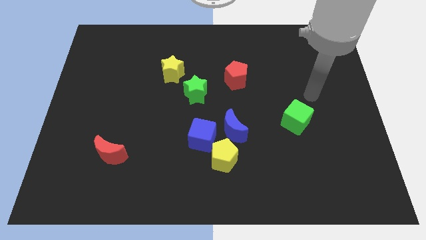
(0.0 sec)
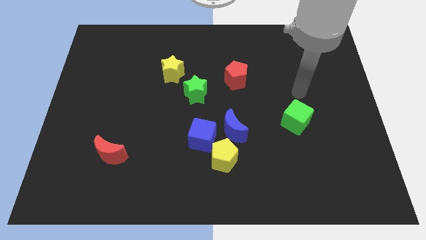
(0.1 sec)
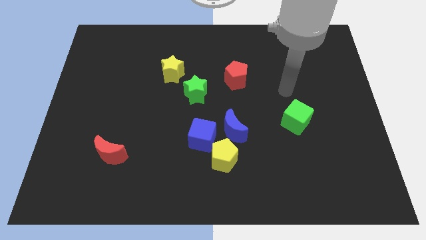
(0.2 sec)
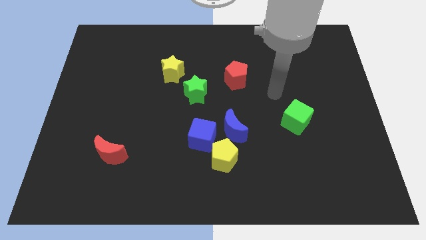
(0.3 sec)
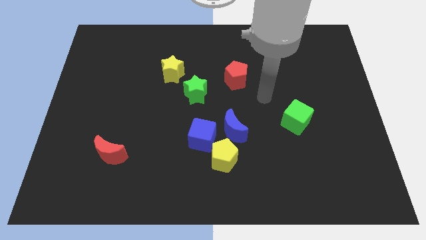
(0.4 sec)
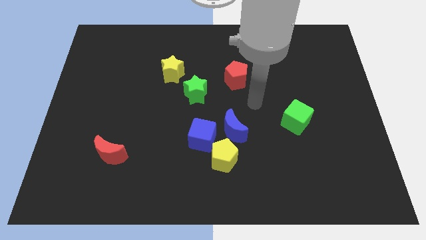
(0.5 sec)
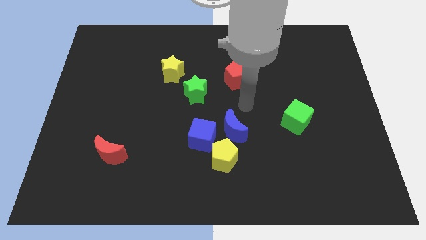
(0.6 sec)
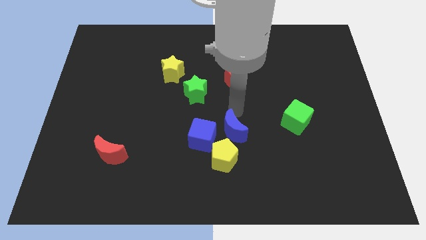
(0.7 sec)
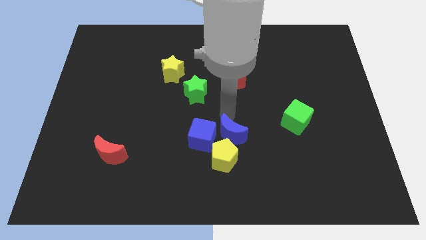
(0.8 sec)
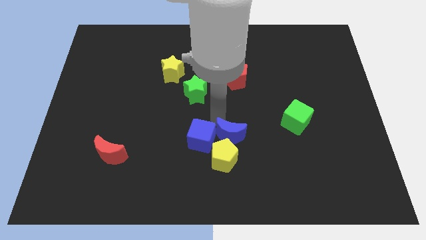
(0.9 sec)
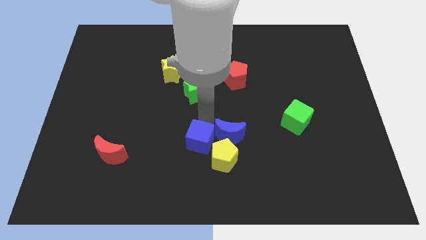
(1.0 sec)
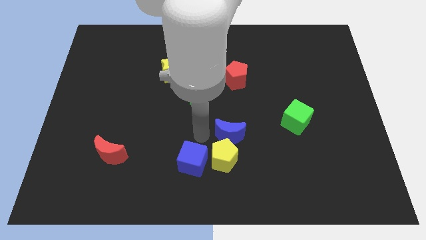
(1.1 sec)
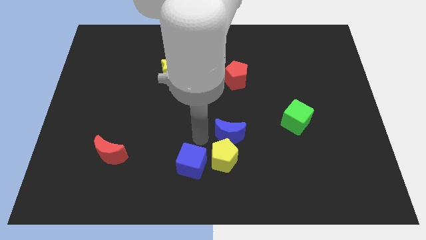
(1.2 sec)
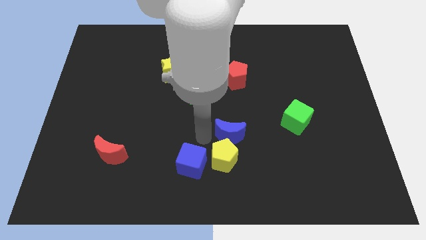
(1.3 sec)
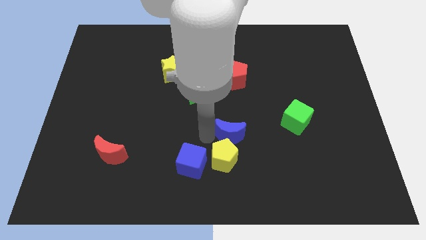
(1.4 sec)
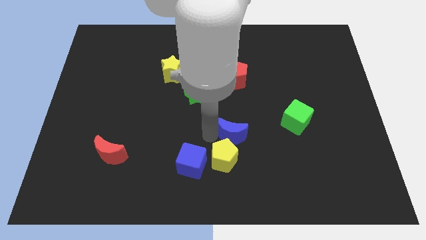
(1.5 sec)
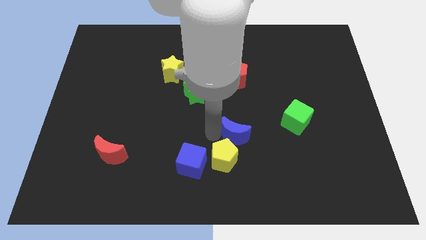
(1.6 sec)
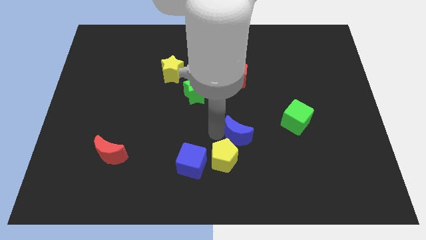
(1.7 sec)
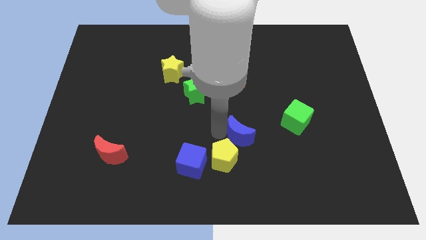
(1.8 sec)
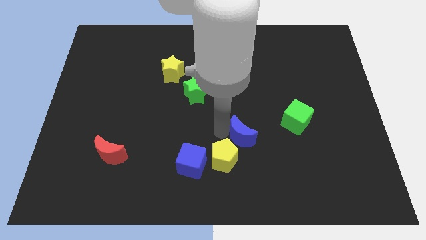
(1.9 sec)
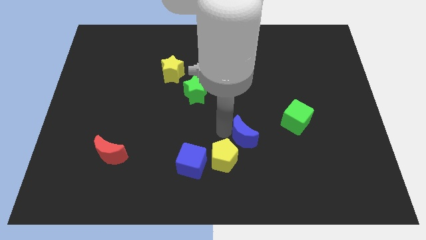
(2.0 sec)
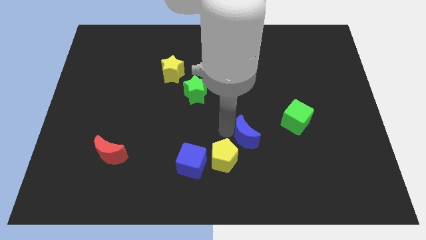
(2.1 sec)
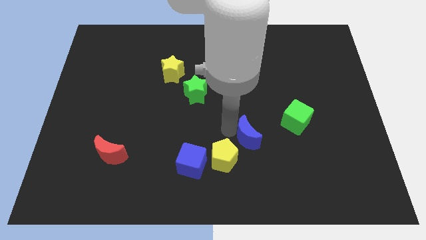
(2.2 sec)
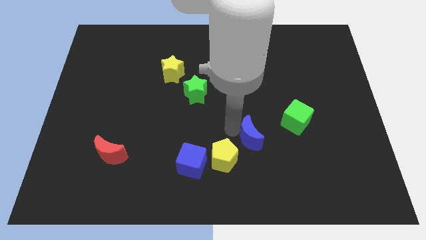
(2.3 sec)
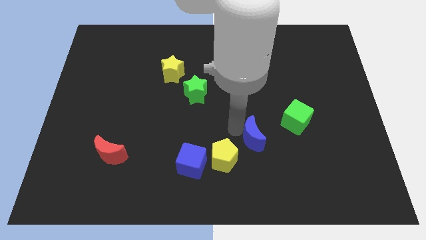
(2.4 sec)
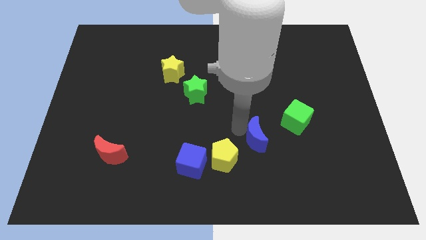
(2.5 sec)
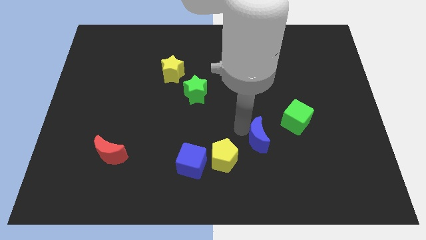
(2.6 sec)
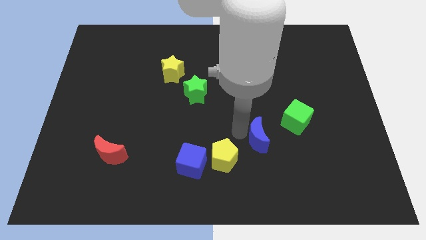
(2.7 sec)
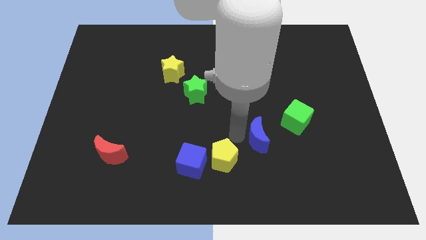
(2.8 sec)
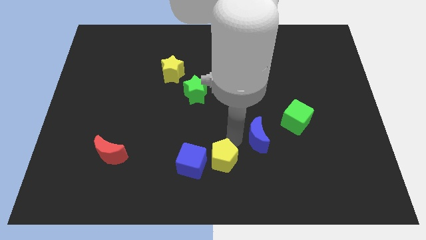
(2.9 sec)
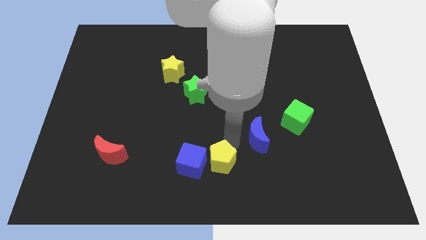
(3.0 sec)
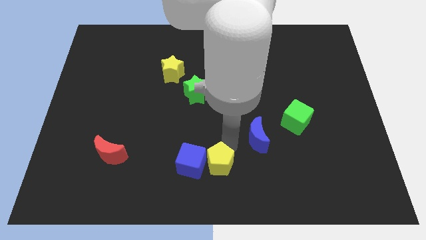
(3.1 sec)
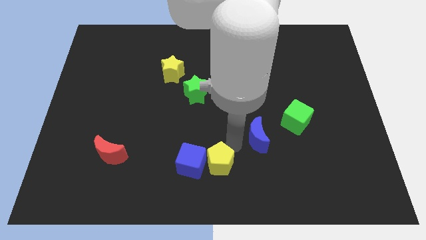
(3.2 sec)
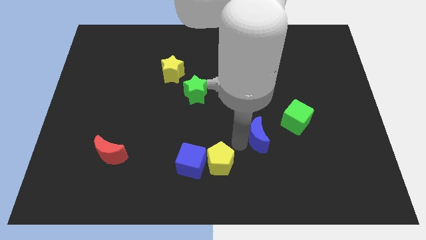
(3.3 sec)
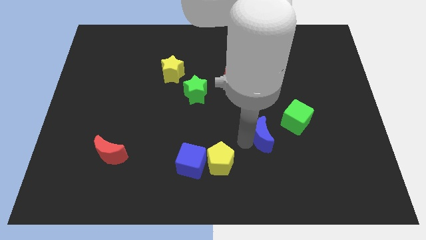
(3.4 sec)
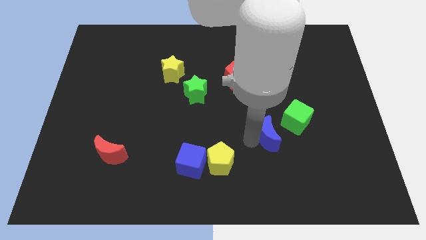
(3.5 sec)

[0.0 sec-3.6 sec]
slide the blue moon right a bit

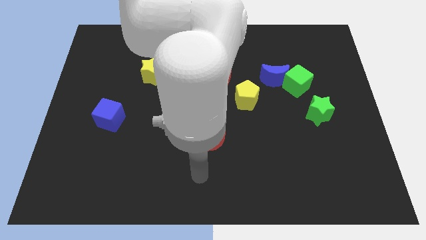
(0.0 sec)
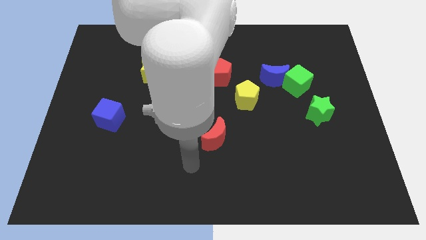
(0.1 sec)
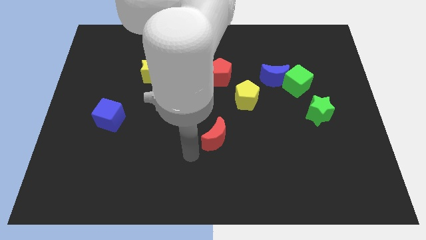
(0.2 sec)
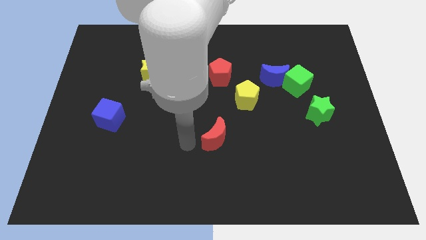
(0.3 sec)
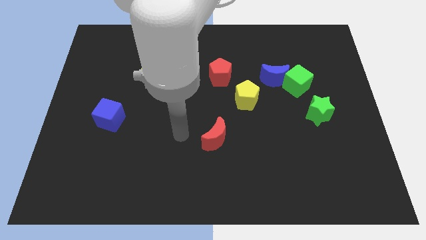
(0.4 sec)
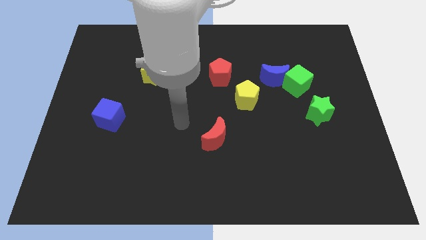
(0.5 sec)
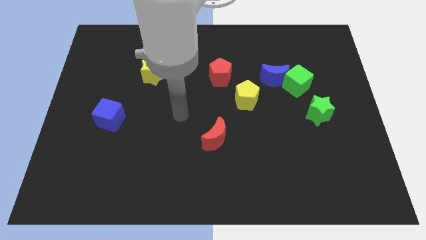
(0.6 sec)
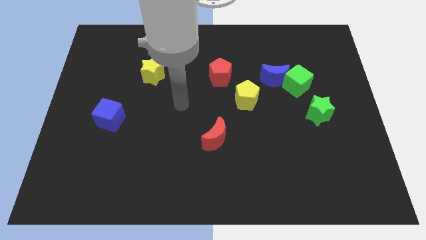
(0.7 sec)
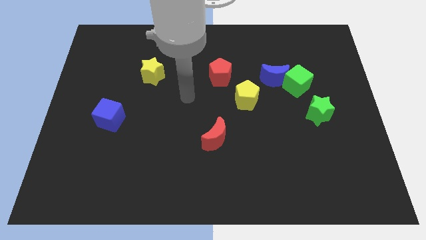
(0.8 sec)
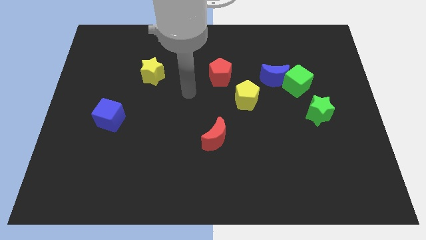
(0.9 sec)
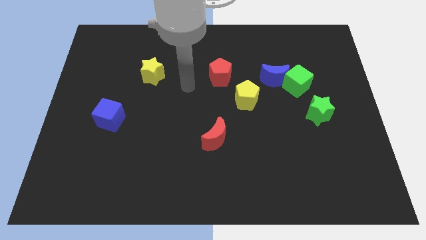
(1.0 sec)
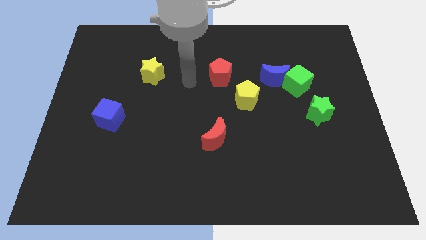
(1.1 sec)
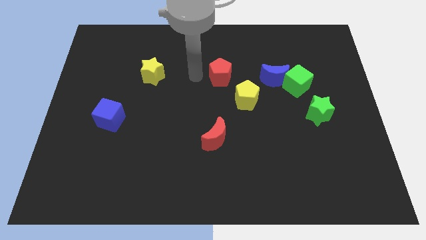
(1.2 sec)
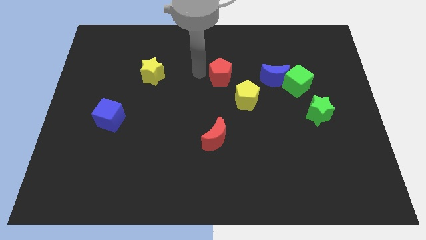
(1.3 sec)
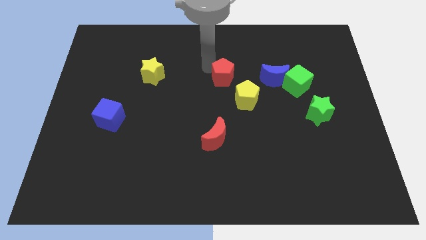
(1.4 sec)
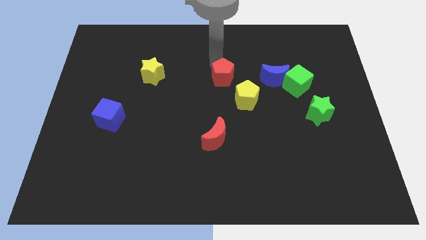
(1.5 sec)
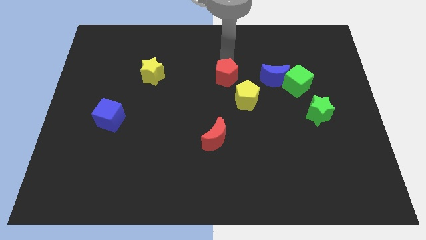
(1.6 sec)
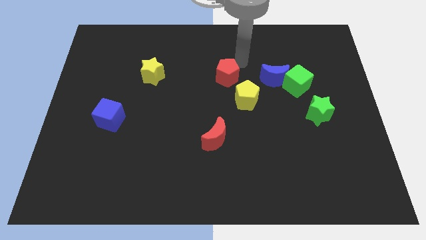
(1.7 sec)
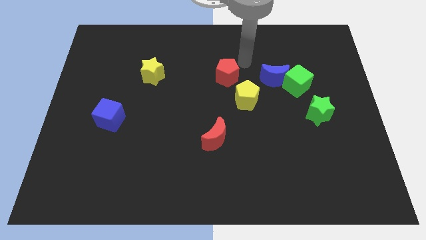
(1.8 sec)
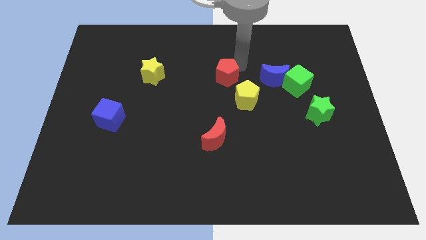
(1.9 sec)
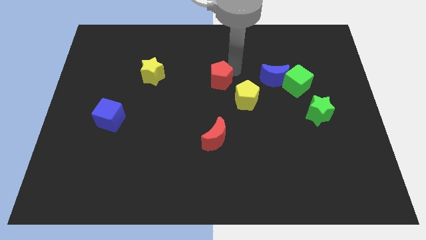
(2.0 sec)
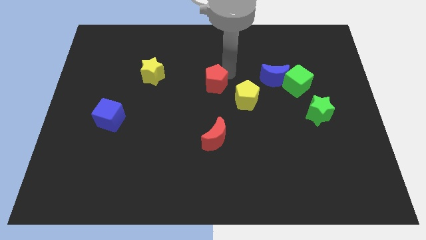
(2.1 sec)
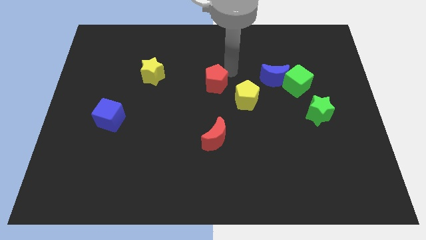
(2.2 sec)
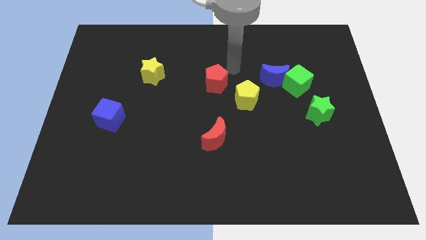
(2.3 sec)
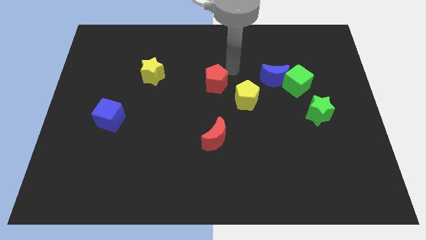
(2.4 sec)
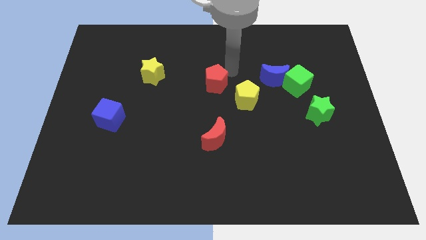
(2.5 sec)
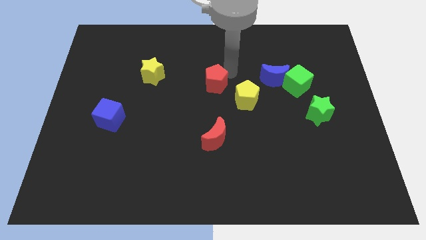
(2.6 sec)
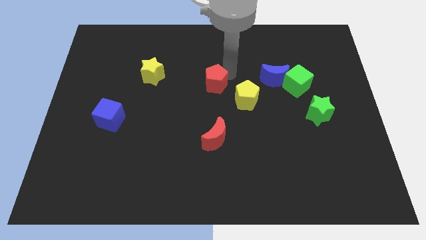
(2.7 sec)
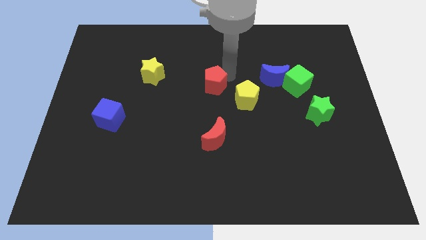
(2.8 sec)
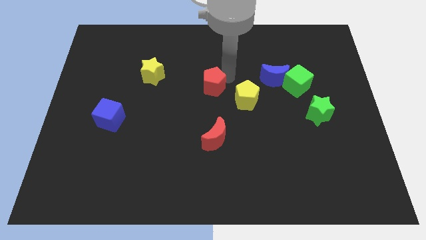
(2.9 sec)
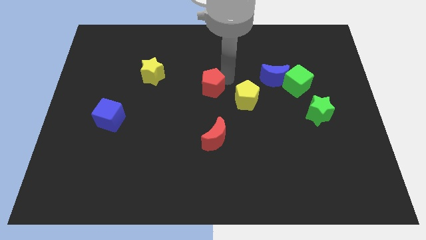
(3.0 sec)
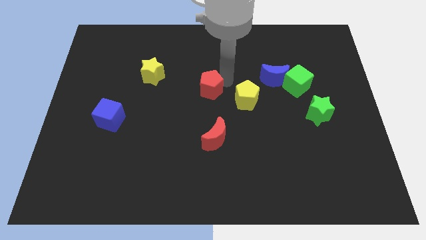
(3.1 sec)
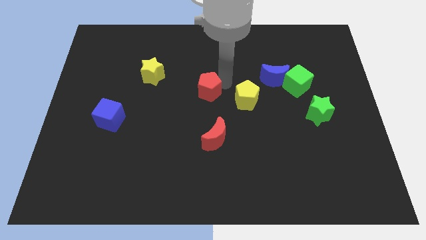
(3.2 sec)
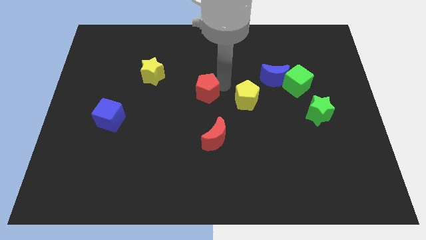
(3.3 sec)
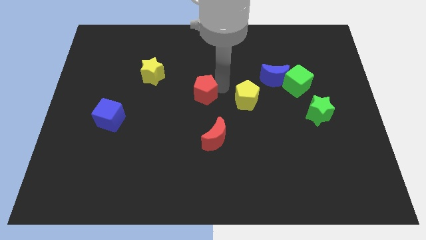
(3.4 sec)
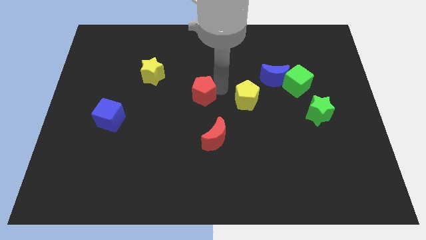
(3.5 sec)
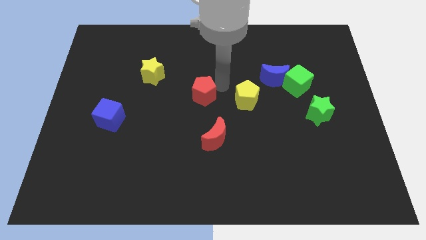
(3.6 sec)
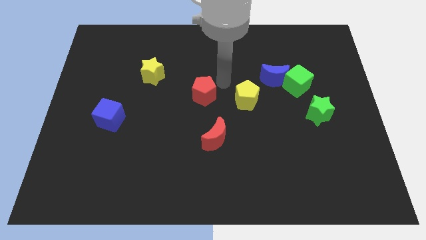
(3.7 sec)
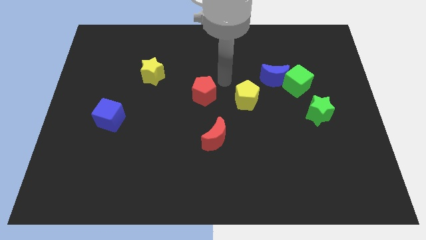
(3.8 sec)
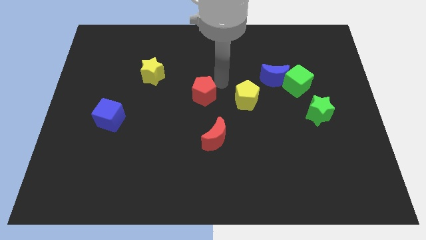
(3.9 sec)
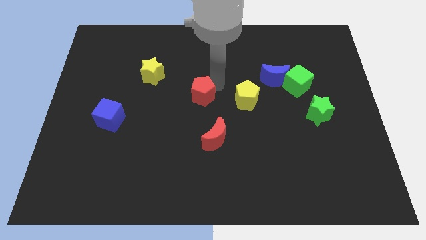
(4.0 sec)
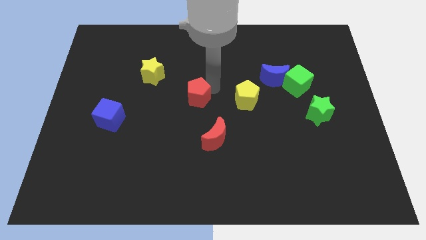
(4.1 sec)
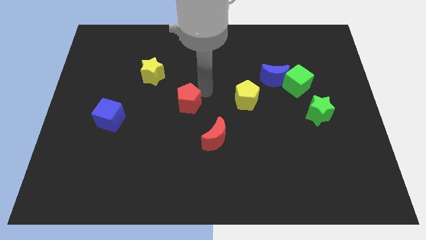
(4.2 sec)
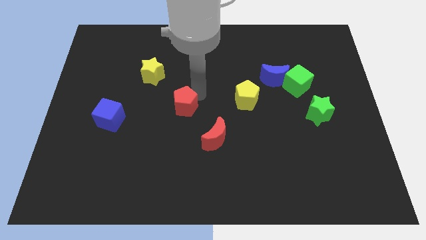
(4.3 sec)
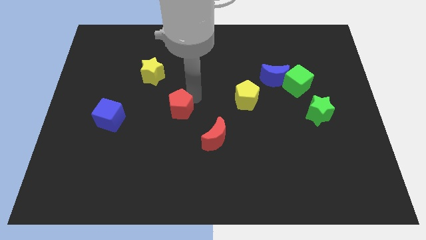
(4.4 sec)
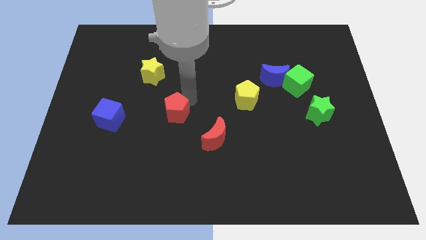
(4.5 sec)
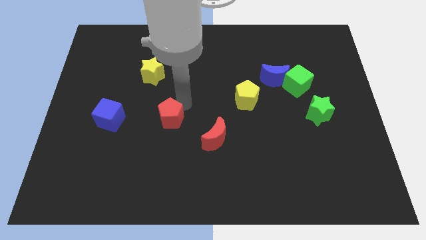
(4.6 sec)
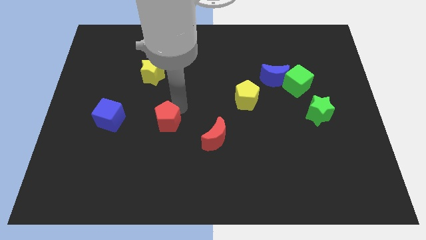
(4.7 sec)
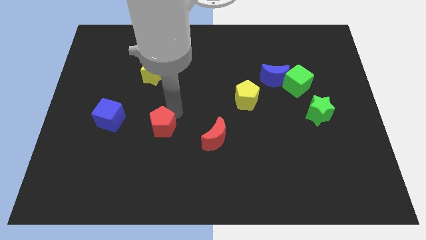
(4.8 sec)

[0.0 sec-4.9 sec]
slide the red pentagon down and left diagonally
